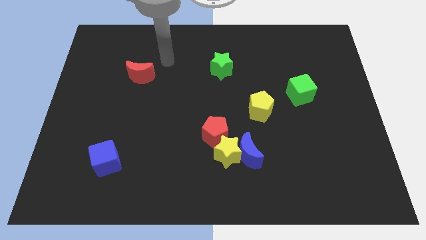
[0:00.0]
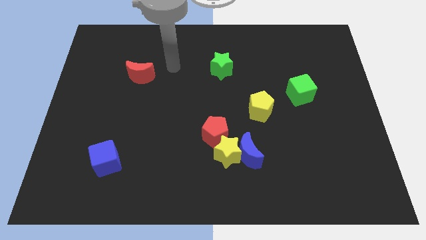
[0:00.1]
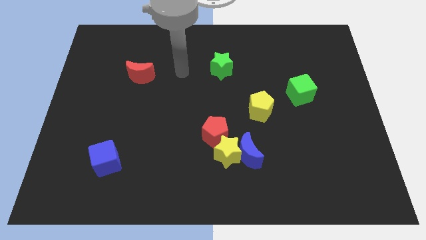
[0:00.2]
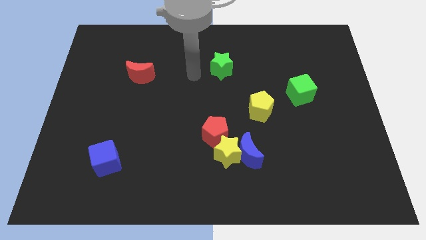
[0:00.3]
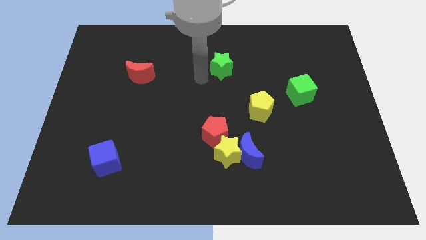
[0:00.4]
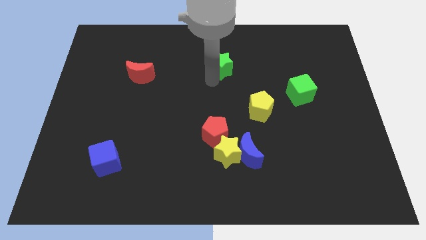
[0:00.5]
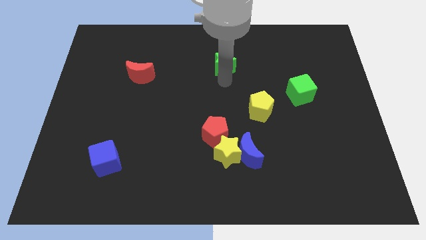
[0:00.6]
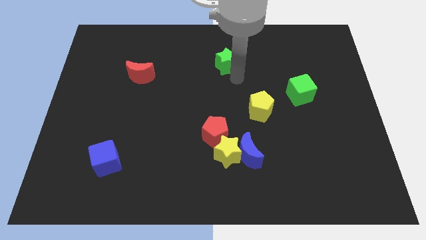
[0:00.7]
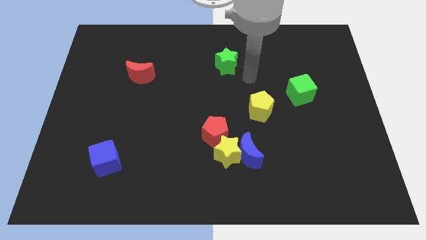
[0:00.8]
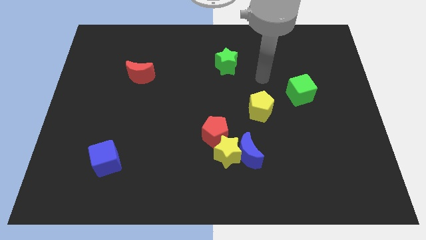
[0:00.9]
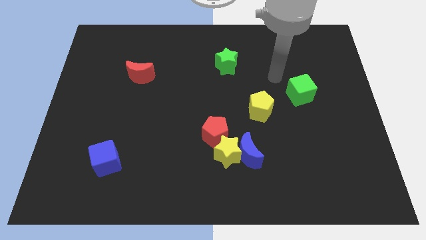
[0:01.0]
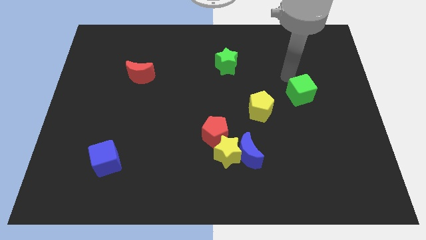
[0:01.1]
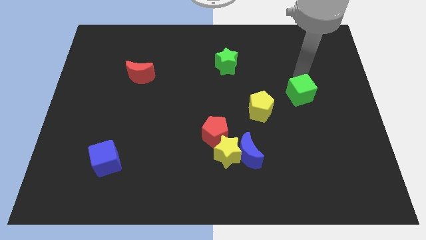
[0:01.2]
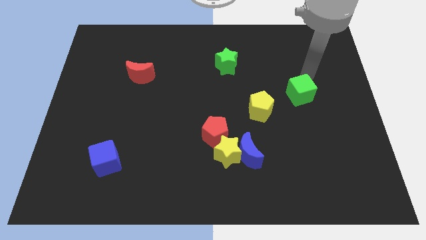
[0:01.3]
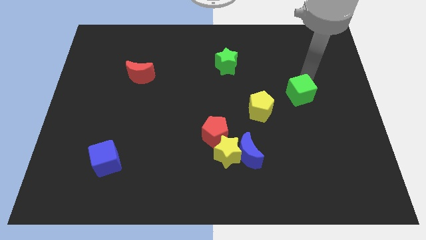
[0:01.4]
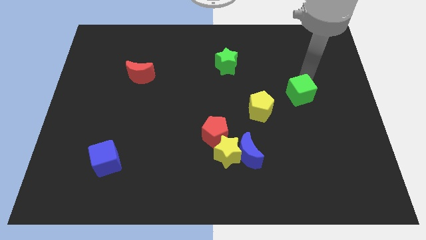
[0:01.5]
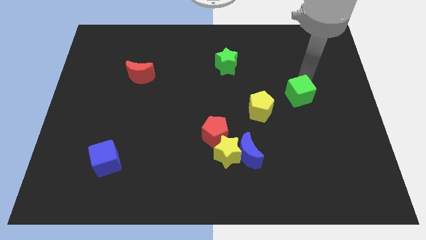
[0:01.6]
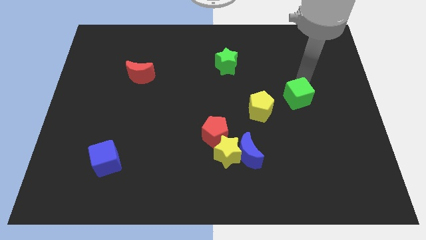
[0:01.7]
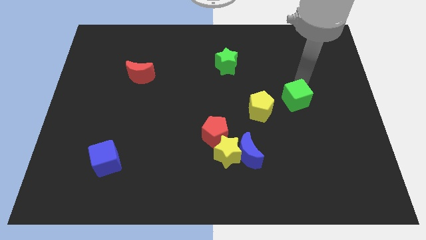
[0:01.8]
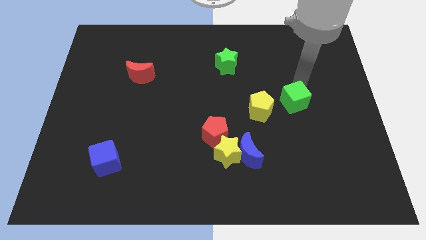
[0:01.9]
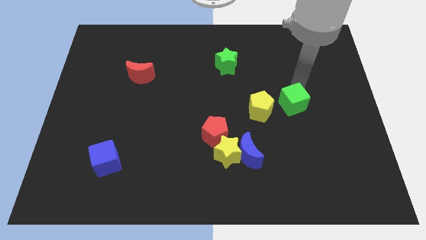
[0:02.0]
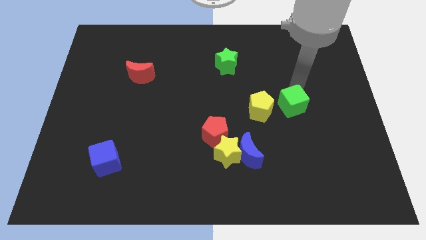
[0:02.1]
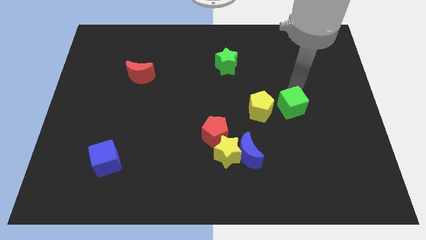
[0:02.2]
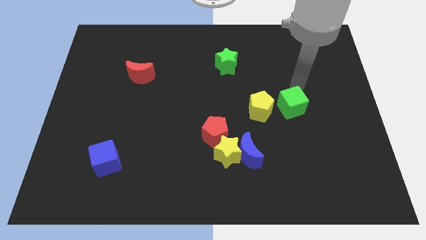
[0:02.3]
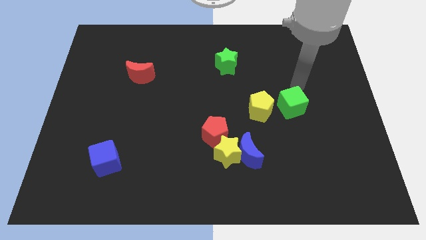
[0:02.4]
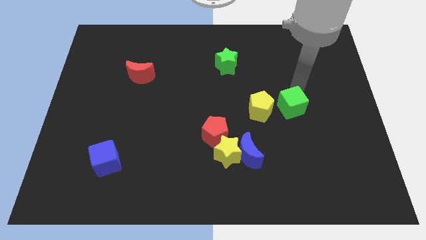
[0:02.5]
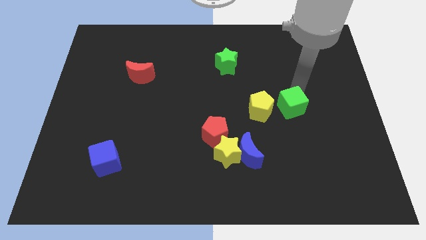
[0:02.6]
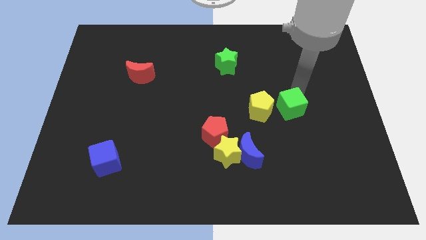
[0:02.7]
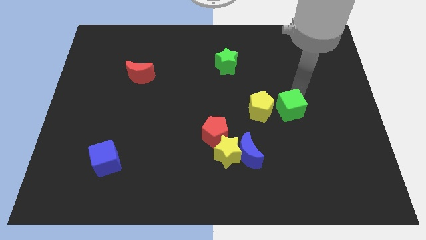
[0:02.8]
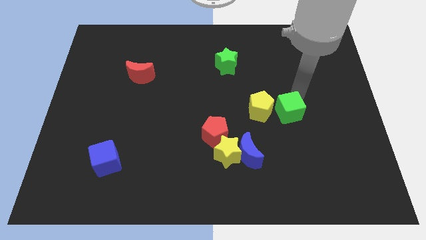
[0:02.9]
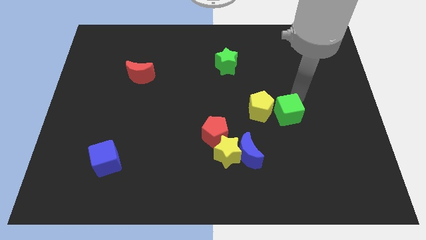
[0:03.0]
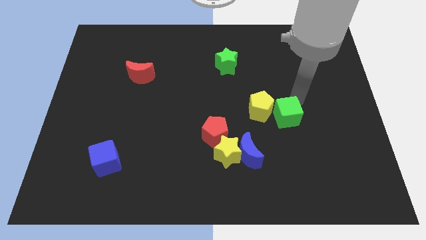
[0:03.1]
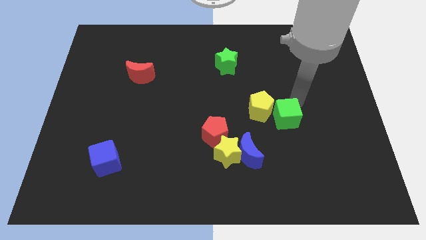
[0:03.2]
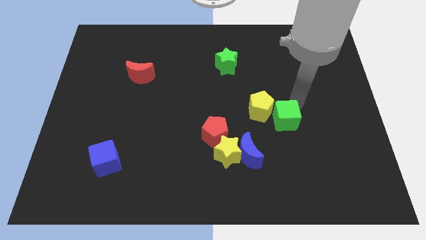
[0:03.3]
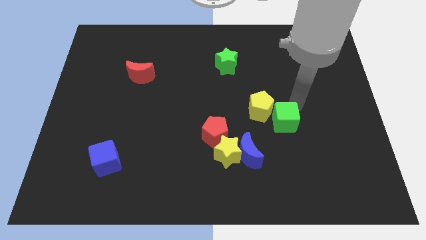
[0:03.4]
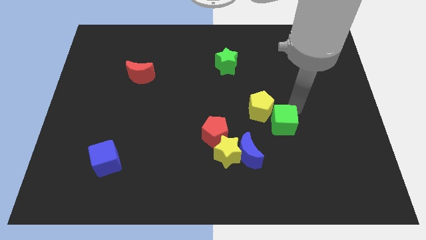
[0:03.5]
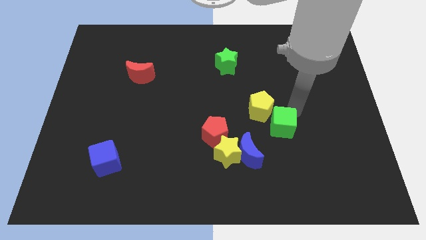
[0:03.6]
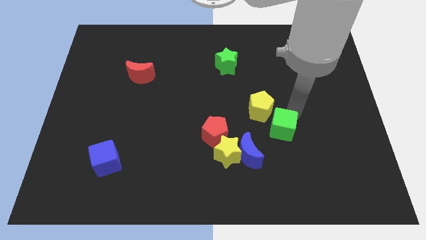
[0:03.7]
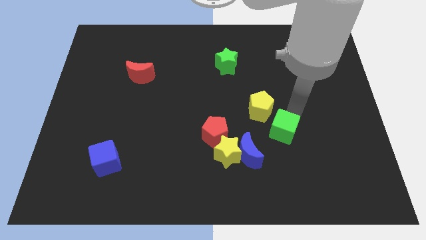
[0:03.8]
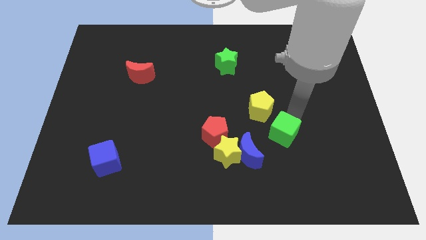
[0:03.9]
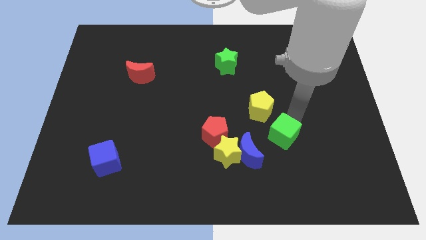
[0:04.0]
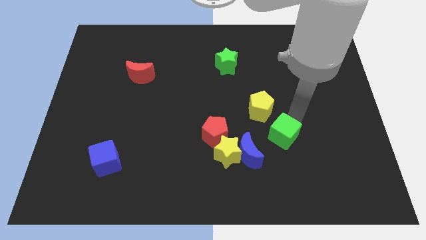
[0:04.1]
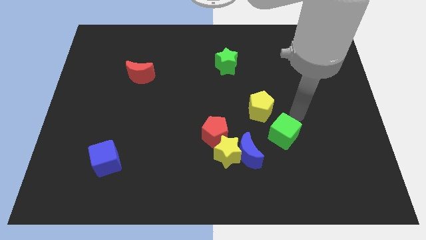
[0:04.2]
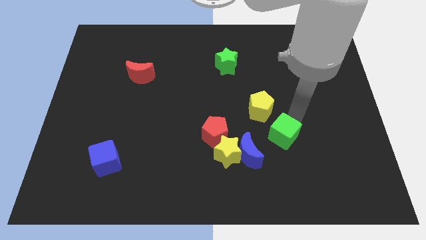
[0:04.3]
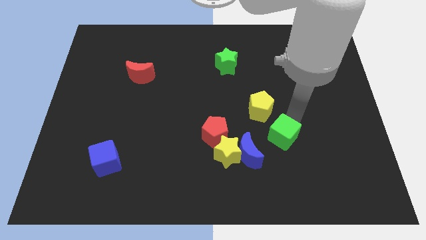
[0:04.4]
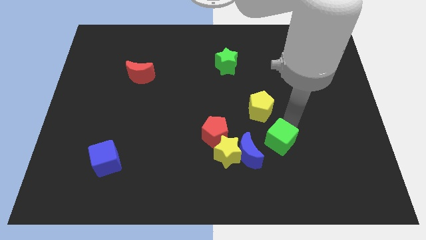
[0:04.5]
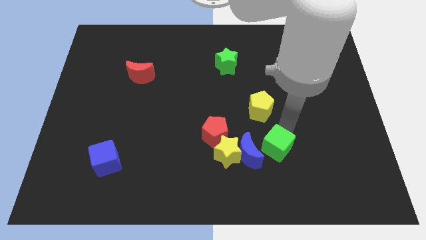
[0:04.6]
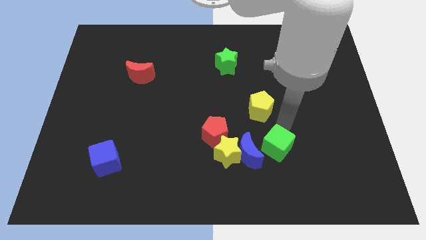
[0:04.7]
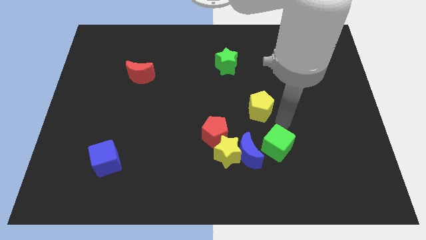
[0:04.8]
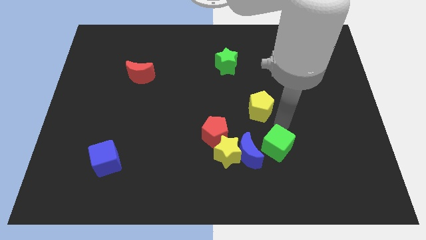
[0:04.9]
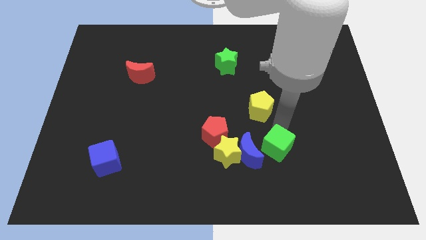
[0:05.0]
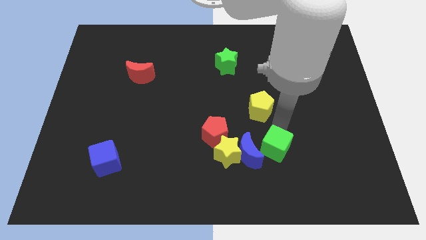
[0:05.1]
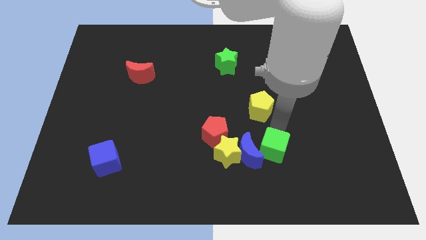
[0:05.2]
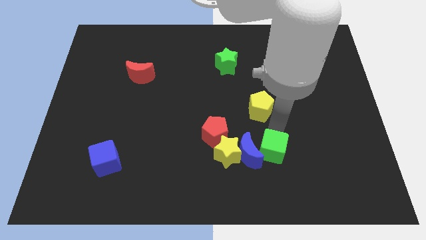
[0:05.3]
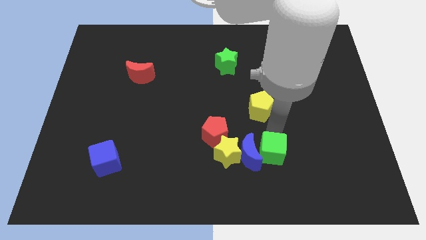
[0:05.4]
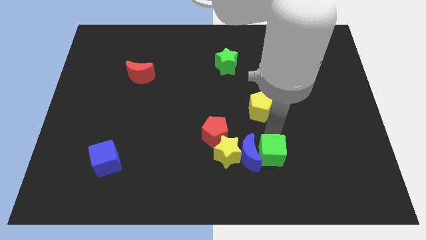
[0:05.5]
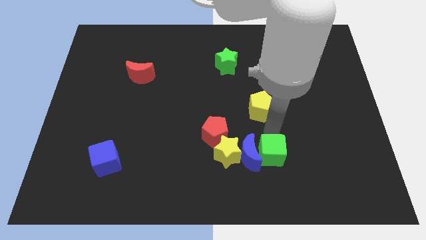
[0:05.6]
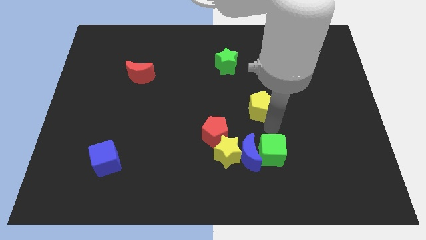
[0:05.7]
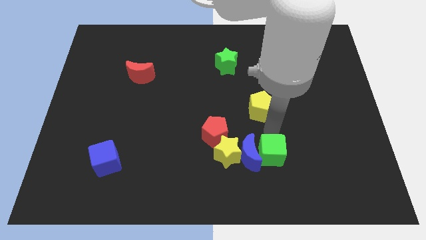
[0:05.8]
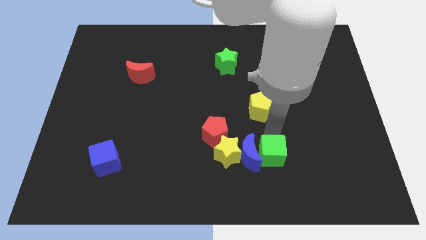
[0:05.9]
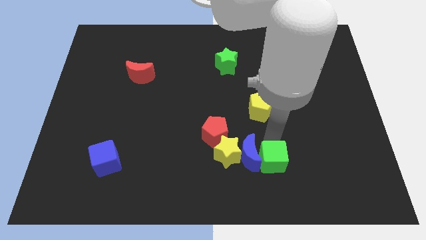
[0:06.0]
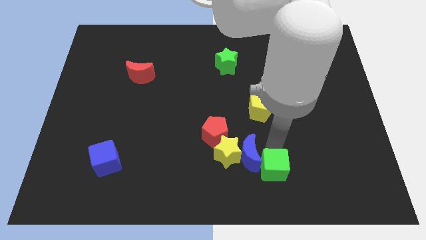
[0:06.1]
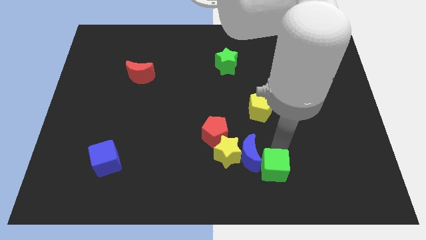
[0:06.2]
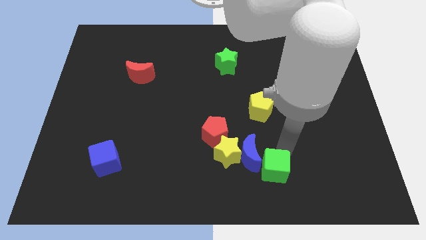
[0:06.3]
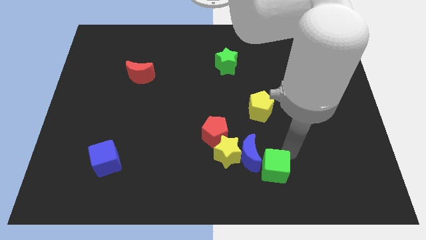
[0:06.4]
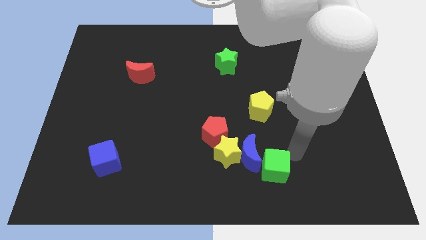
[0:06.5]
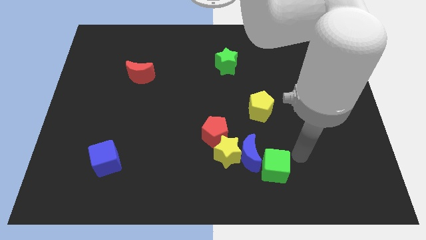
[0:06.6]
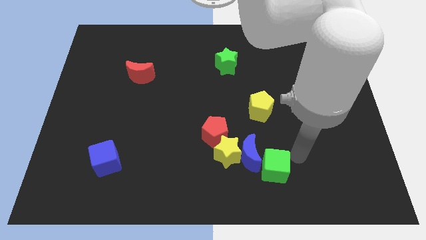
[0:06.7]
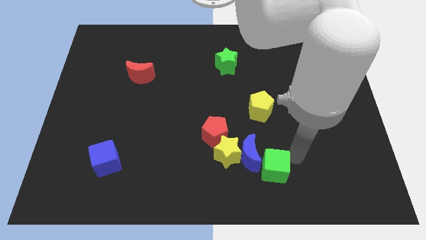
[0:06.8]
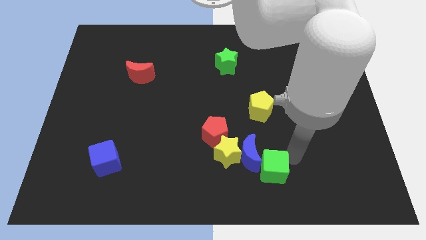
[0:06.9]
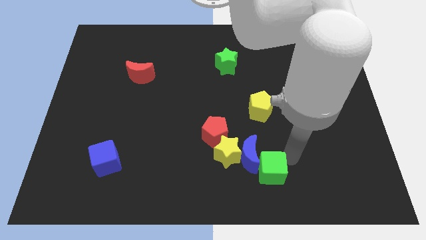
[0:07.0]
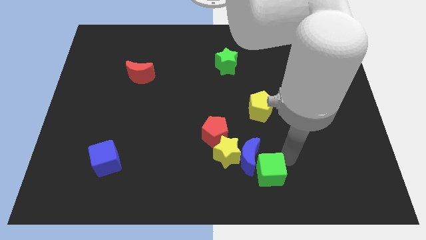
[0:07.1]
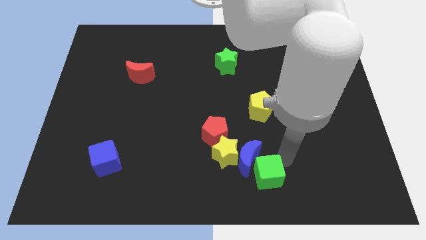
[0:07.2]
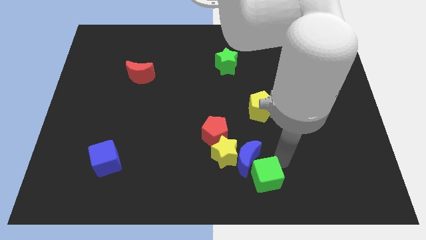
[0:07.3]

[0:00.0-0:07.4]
slide the green cube down and to the left

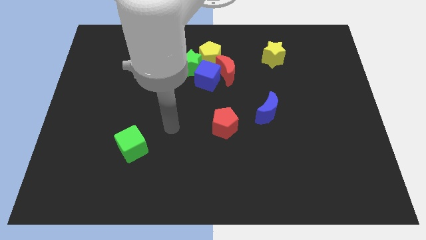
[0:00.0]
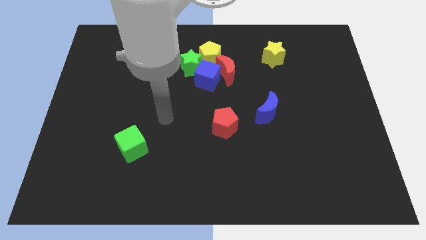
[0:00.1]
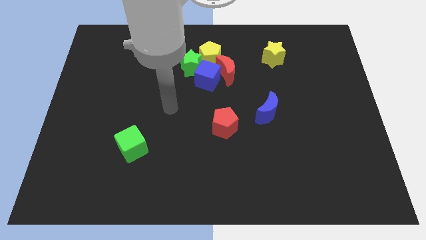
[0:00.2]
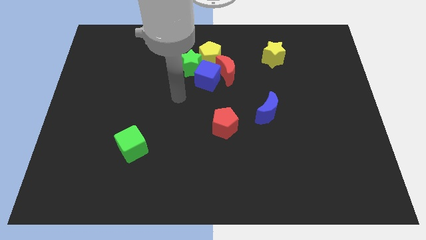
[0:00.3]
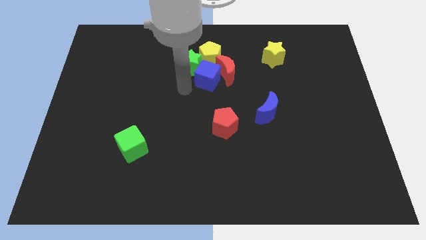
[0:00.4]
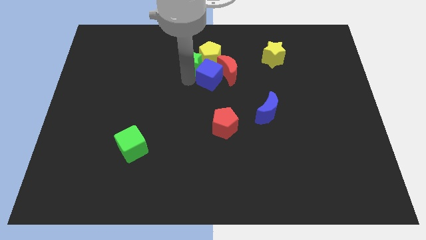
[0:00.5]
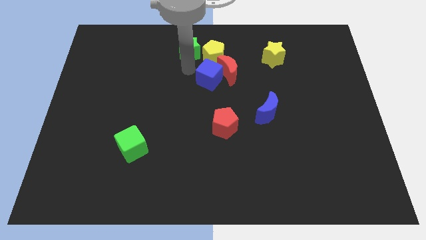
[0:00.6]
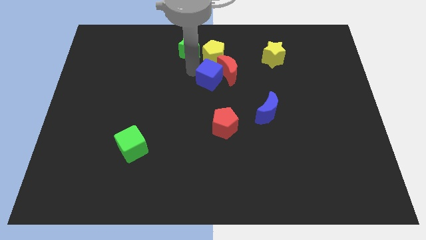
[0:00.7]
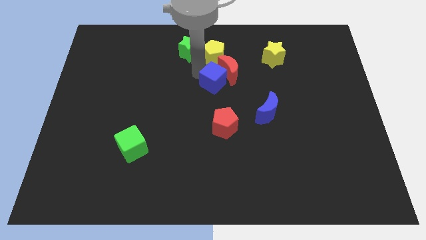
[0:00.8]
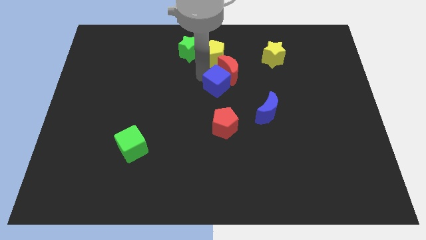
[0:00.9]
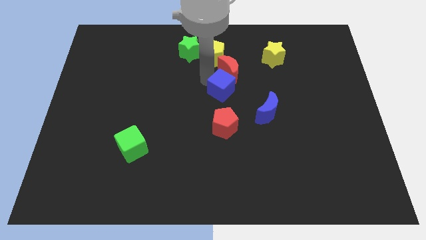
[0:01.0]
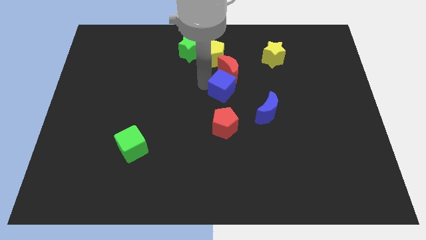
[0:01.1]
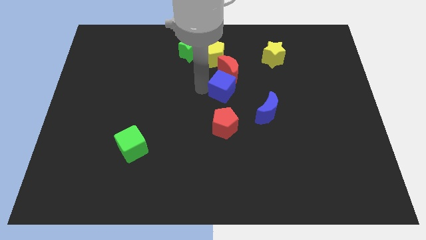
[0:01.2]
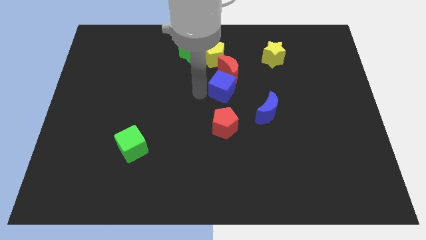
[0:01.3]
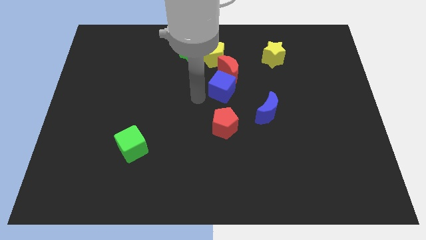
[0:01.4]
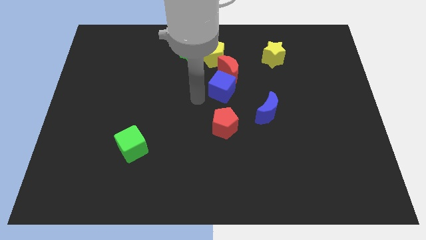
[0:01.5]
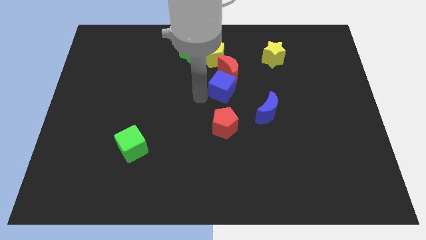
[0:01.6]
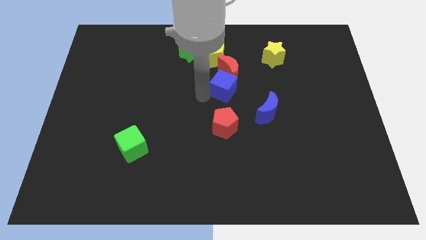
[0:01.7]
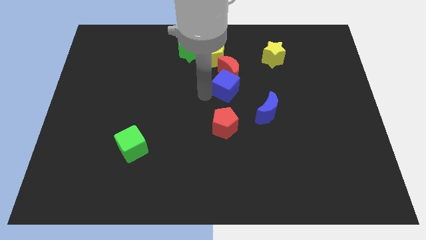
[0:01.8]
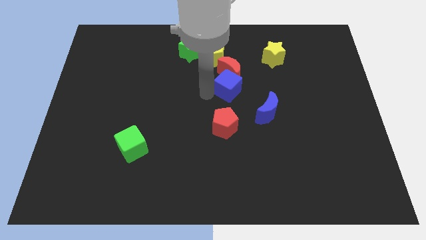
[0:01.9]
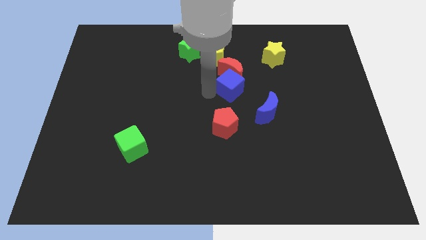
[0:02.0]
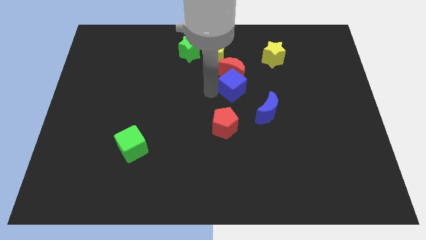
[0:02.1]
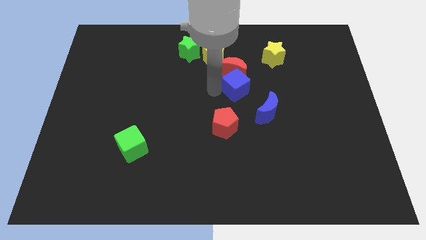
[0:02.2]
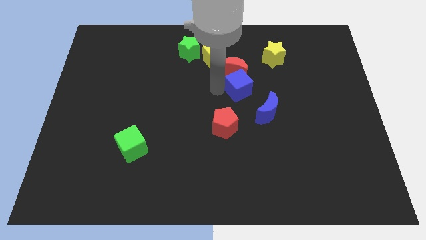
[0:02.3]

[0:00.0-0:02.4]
move the blue cube slightly to the right
